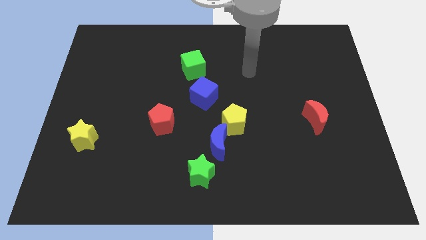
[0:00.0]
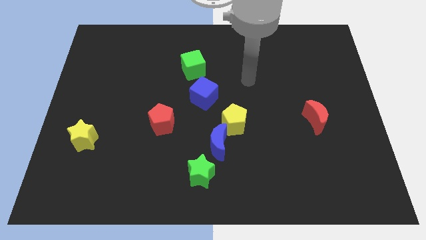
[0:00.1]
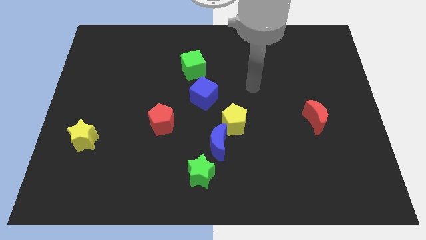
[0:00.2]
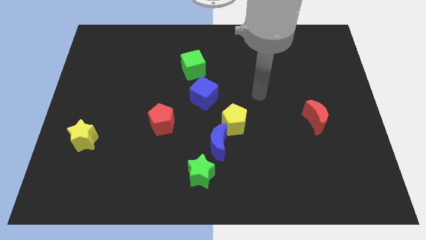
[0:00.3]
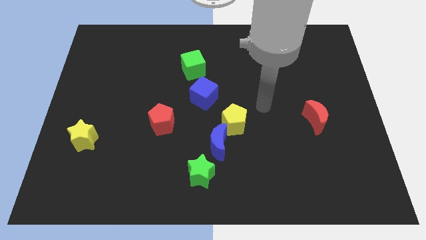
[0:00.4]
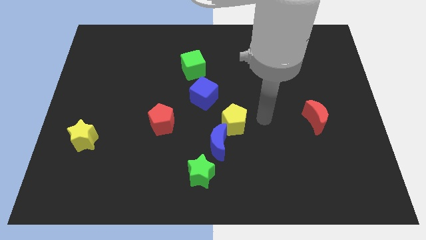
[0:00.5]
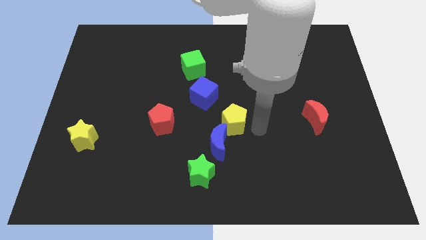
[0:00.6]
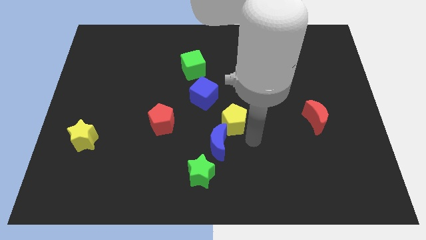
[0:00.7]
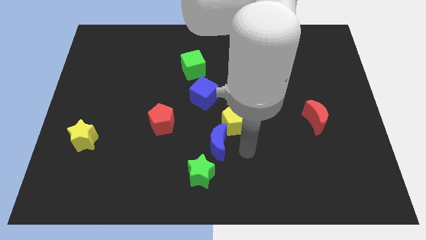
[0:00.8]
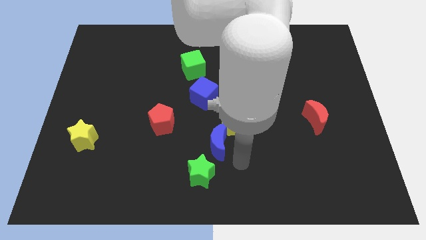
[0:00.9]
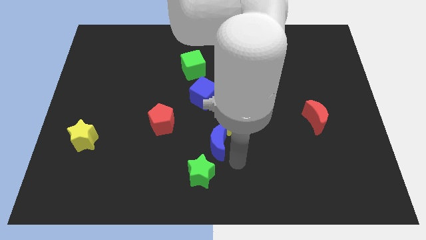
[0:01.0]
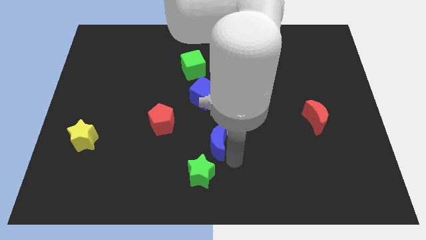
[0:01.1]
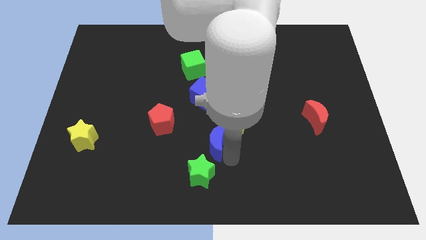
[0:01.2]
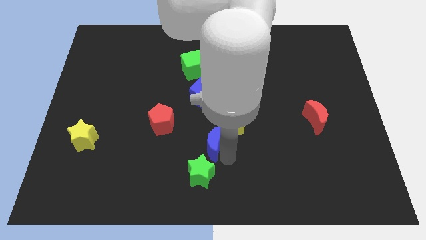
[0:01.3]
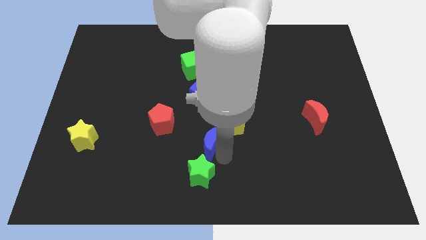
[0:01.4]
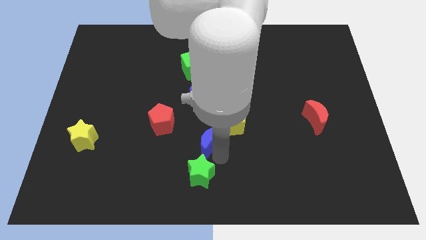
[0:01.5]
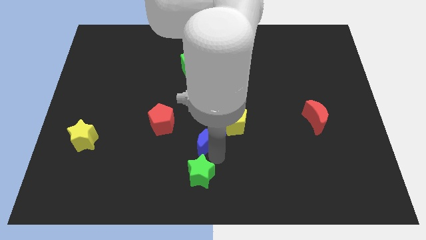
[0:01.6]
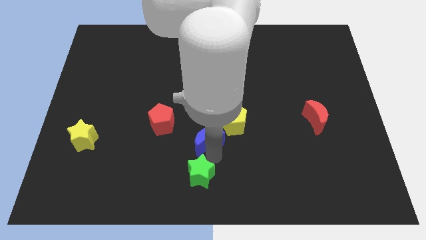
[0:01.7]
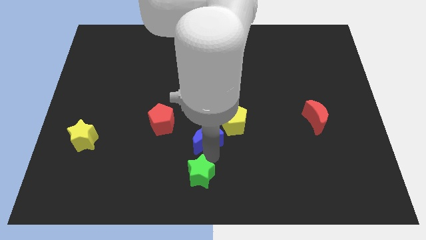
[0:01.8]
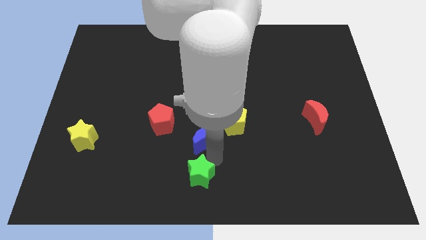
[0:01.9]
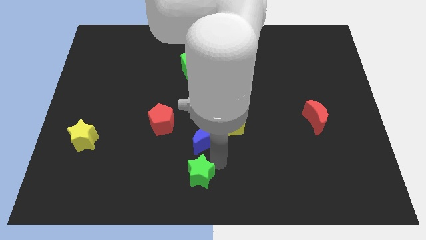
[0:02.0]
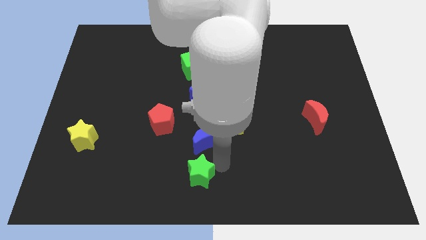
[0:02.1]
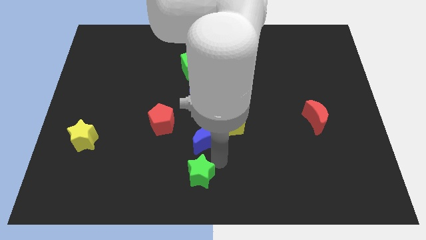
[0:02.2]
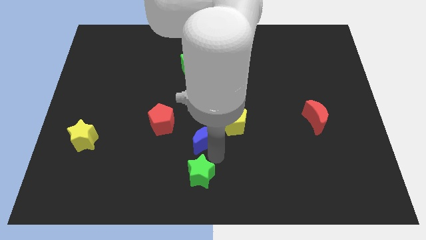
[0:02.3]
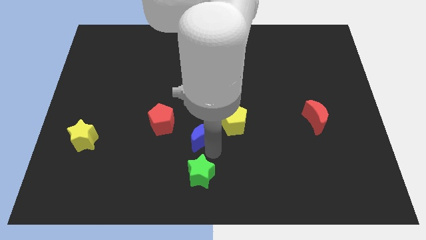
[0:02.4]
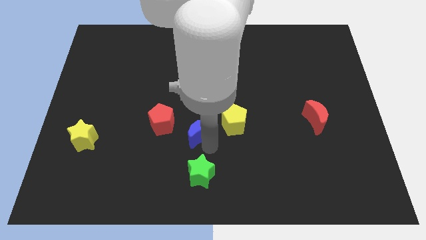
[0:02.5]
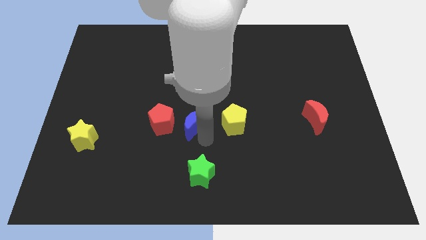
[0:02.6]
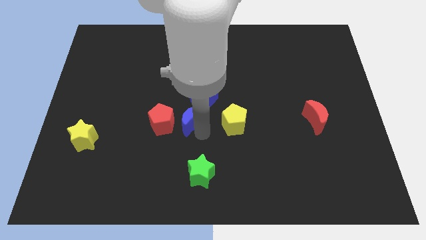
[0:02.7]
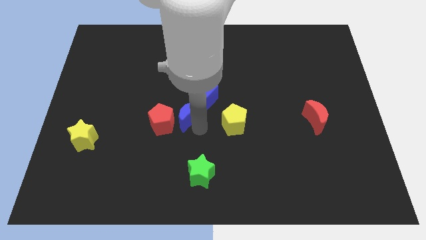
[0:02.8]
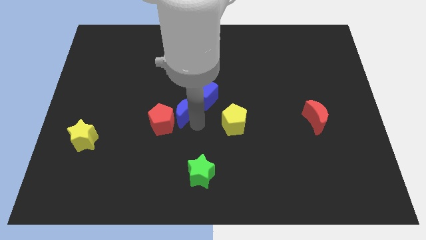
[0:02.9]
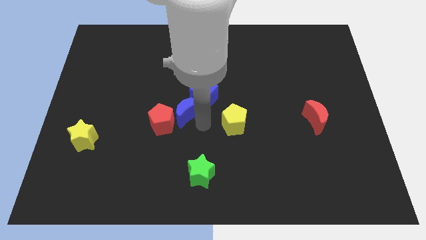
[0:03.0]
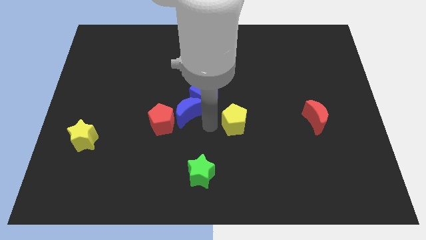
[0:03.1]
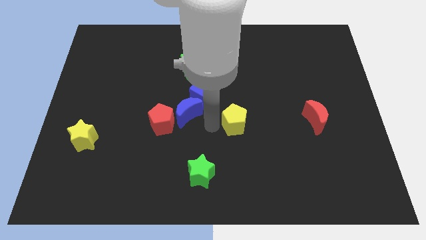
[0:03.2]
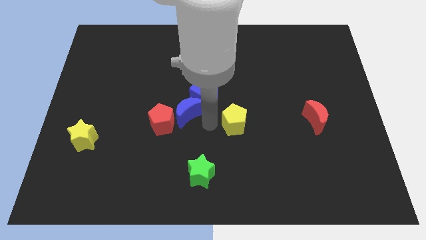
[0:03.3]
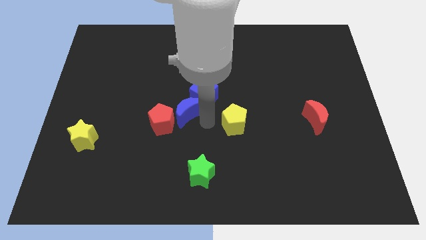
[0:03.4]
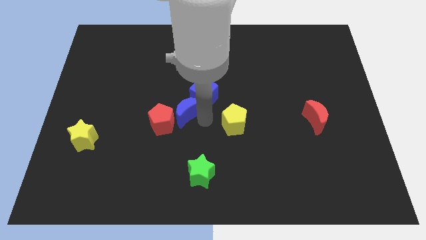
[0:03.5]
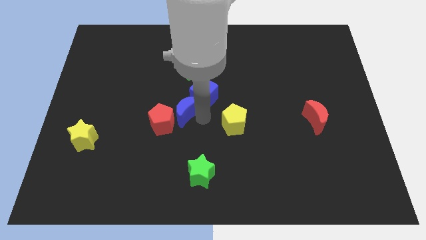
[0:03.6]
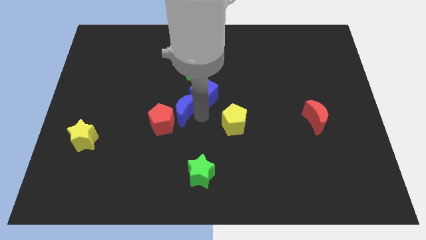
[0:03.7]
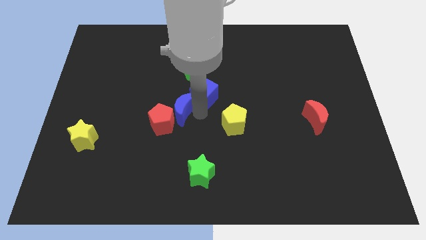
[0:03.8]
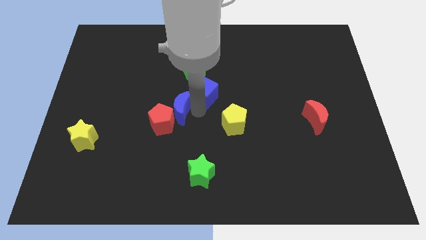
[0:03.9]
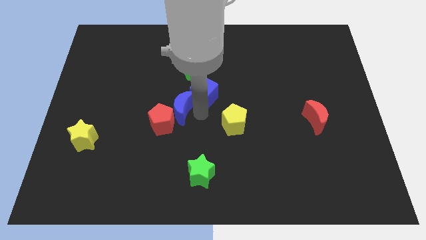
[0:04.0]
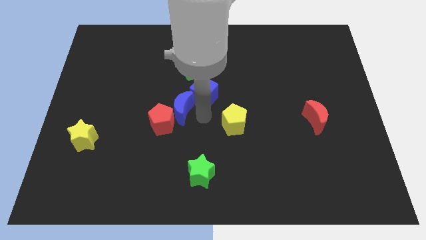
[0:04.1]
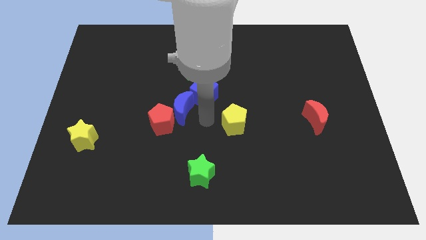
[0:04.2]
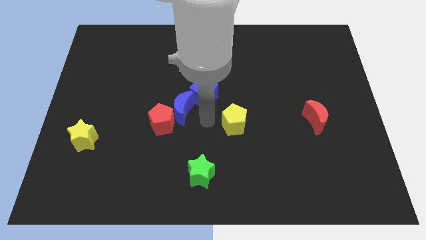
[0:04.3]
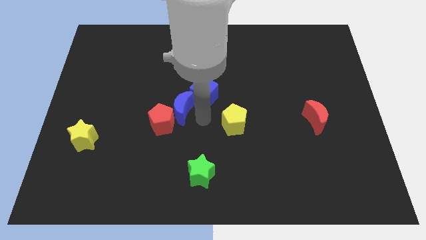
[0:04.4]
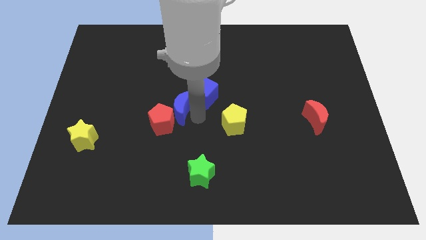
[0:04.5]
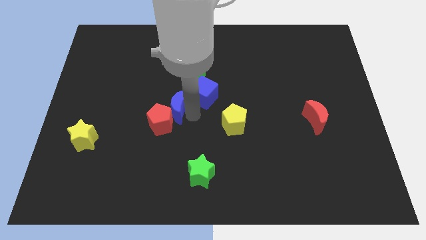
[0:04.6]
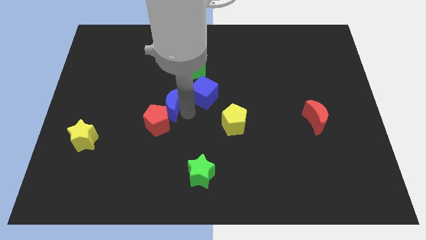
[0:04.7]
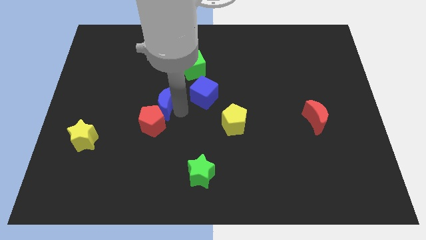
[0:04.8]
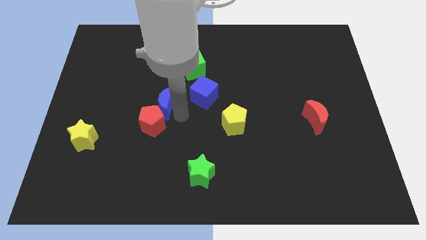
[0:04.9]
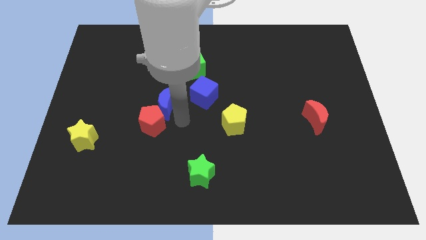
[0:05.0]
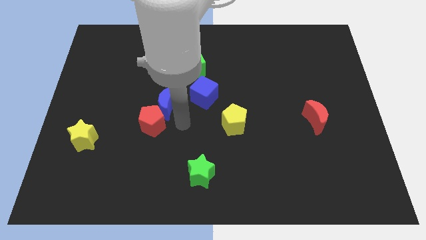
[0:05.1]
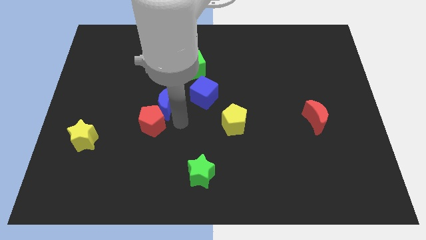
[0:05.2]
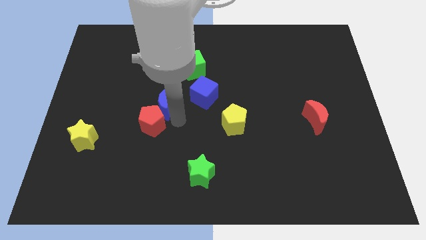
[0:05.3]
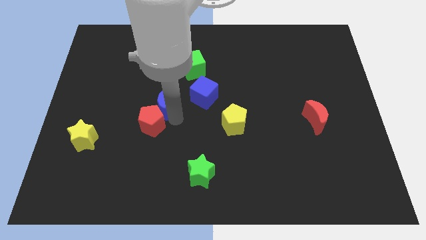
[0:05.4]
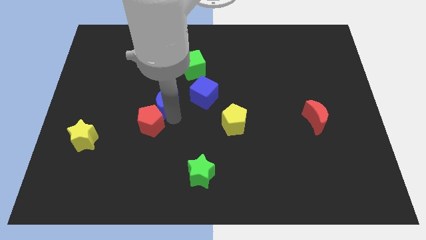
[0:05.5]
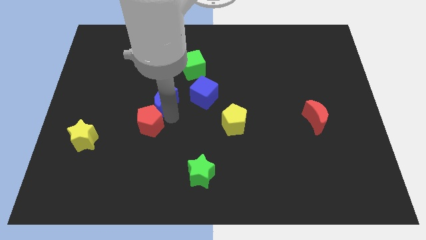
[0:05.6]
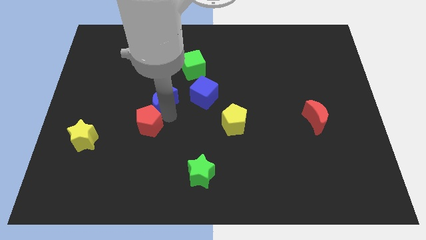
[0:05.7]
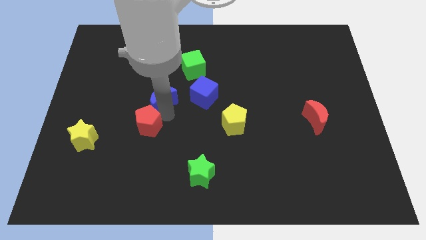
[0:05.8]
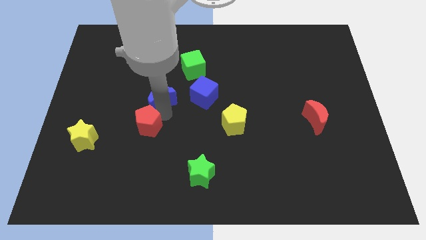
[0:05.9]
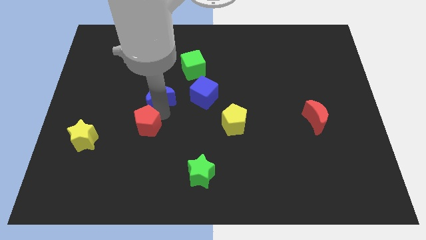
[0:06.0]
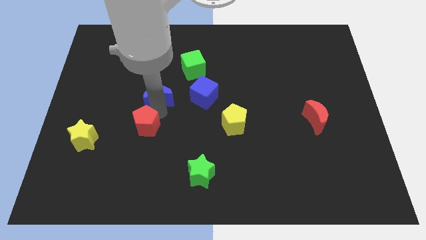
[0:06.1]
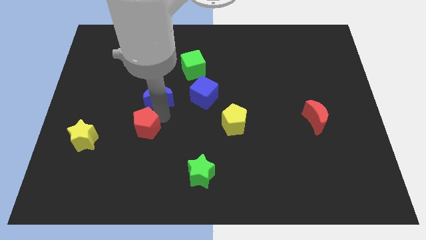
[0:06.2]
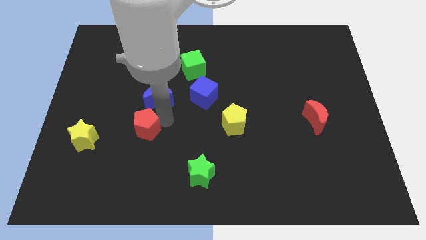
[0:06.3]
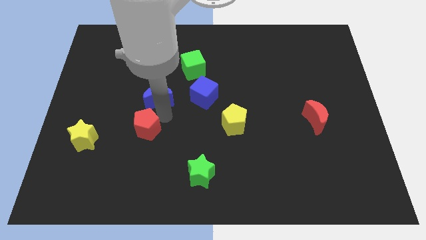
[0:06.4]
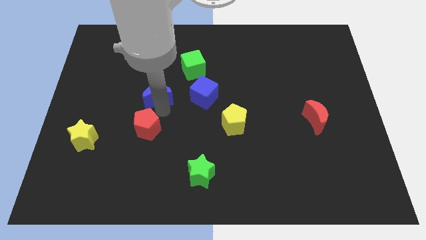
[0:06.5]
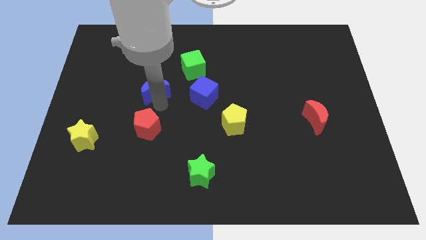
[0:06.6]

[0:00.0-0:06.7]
push the blue moon up and then left

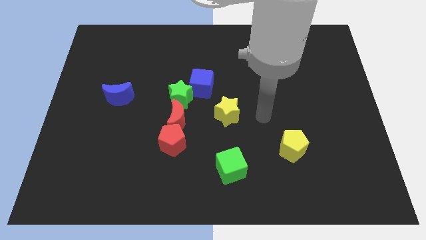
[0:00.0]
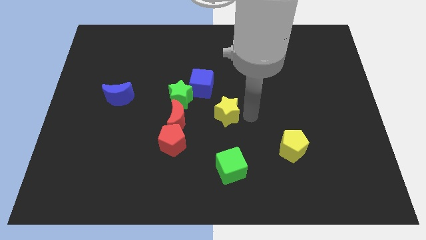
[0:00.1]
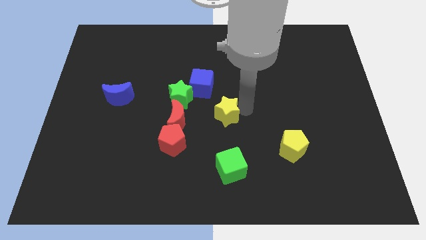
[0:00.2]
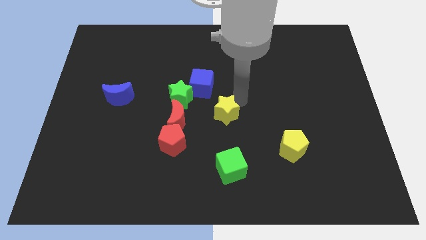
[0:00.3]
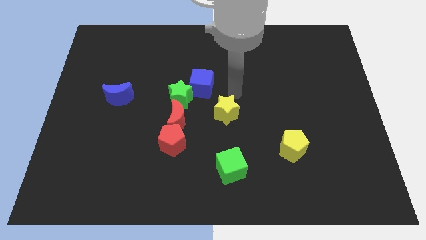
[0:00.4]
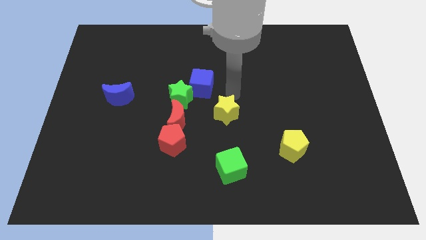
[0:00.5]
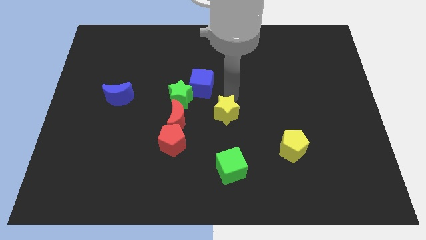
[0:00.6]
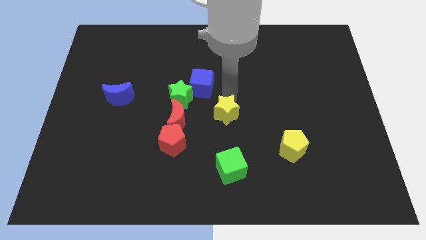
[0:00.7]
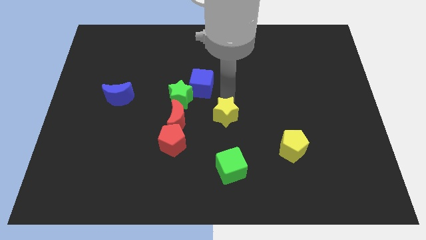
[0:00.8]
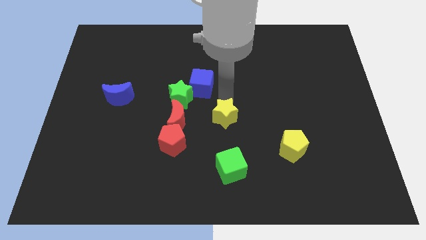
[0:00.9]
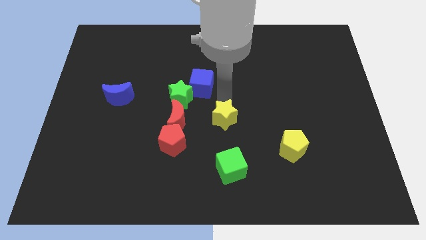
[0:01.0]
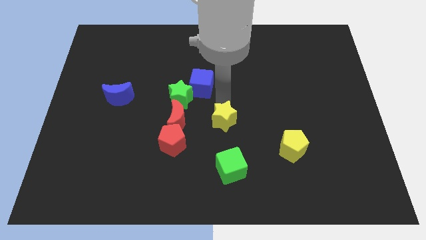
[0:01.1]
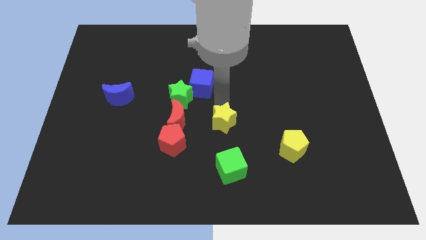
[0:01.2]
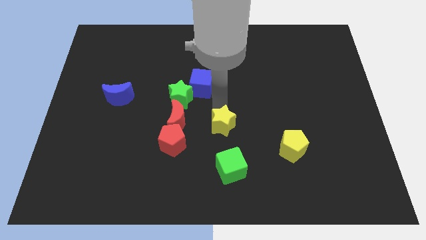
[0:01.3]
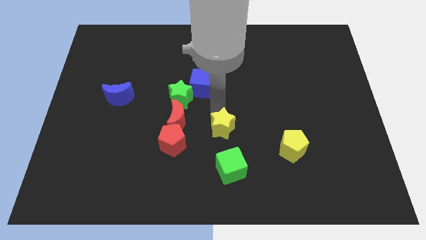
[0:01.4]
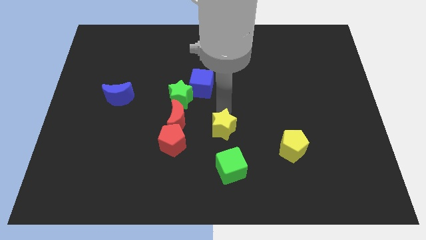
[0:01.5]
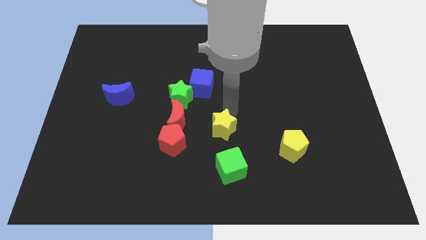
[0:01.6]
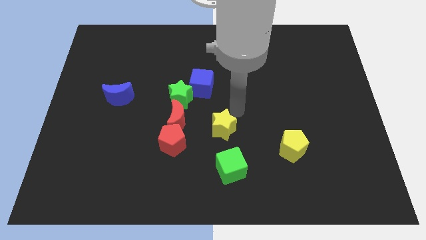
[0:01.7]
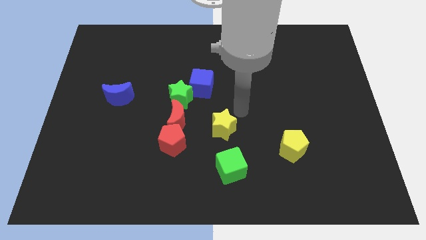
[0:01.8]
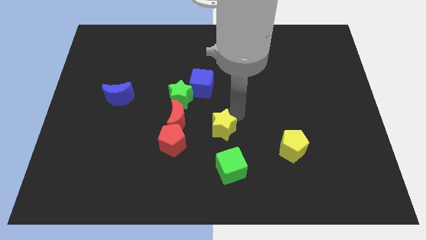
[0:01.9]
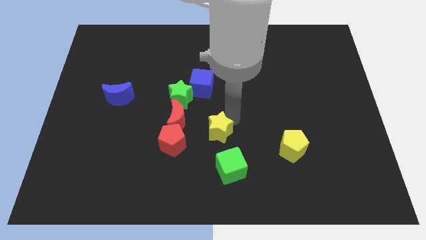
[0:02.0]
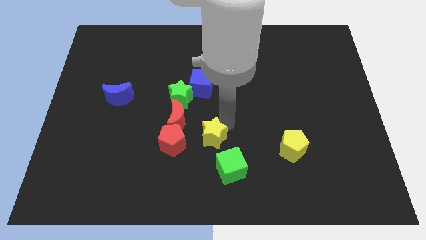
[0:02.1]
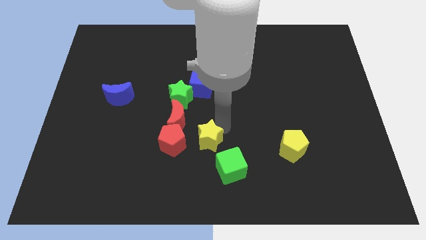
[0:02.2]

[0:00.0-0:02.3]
slightly move the yellow star down and then left
